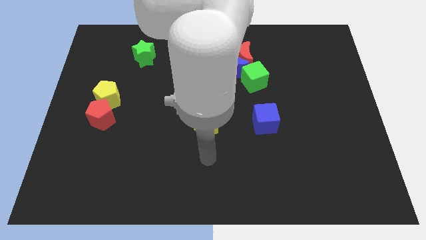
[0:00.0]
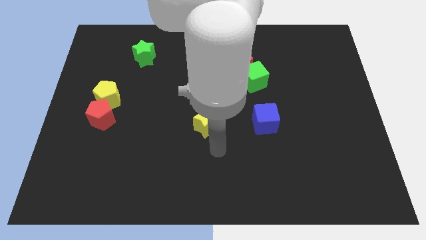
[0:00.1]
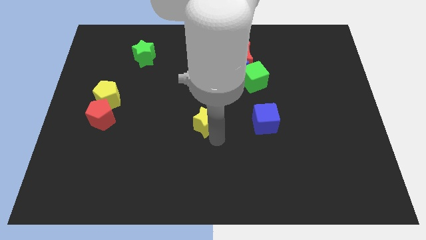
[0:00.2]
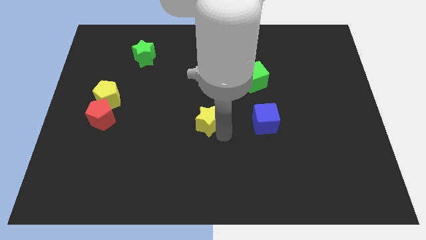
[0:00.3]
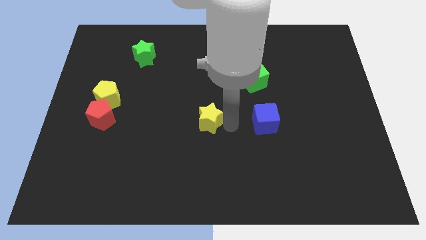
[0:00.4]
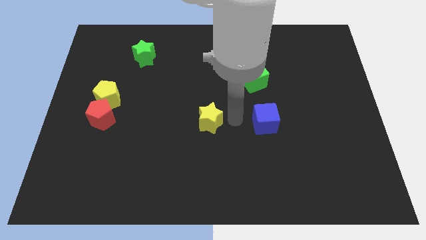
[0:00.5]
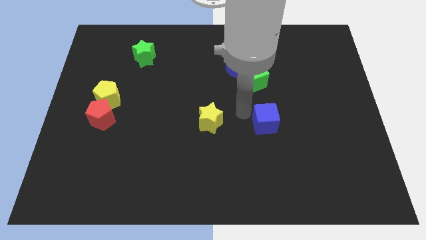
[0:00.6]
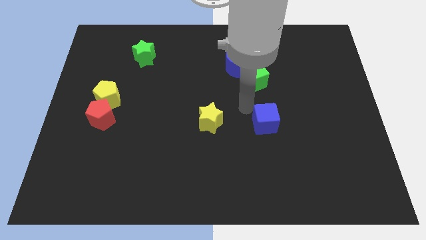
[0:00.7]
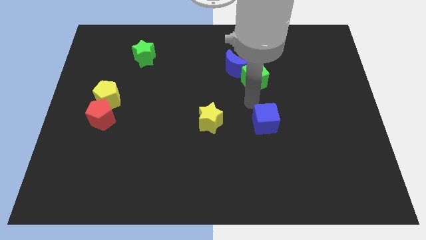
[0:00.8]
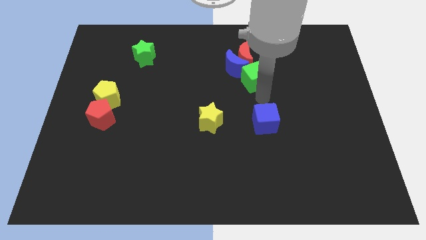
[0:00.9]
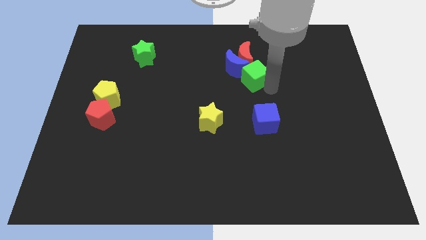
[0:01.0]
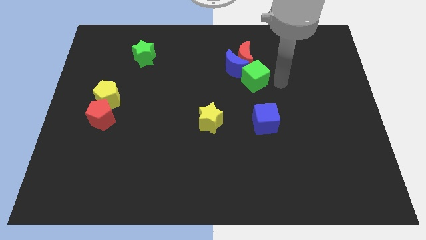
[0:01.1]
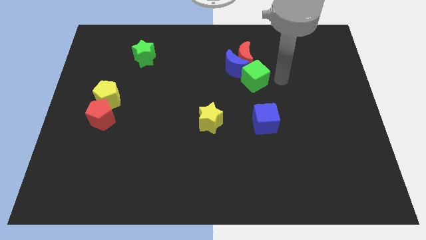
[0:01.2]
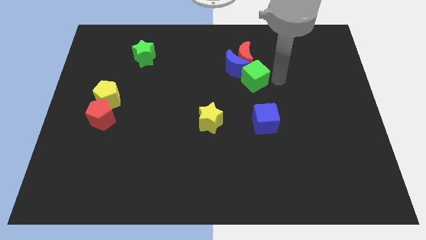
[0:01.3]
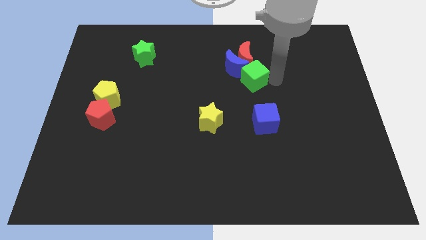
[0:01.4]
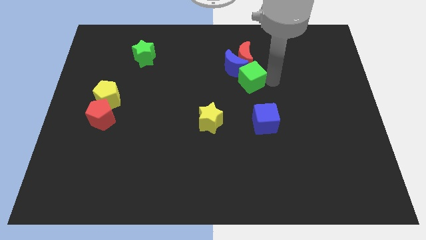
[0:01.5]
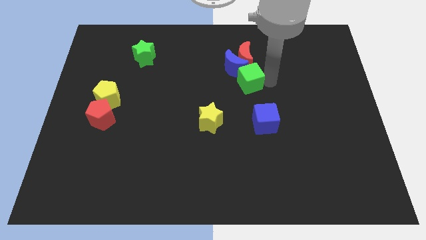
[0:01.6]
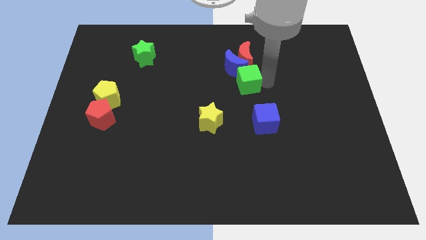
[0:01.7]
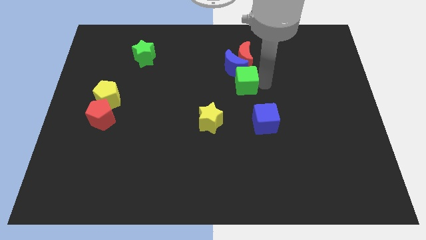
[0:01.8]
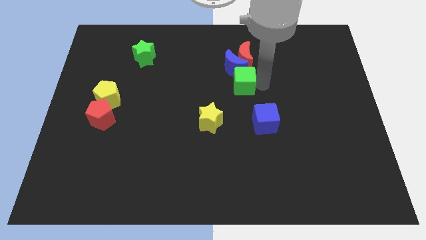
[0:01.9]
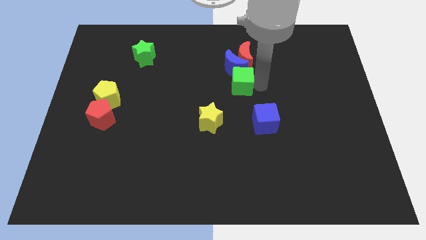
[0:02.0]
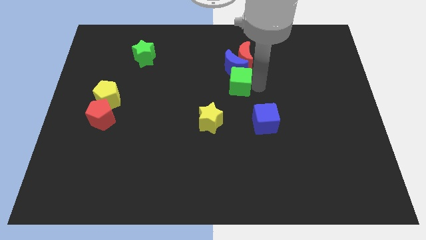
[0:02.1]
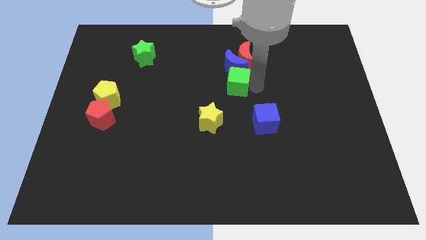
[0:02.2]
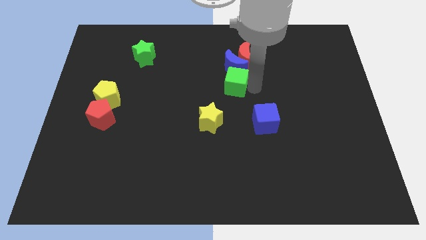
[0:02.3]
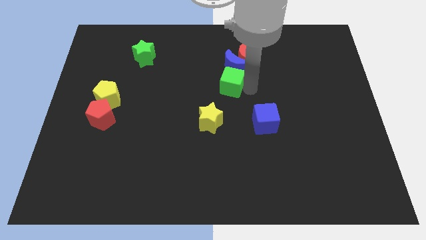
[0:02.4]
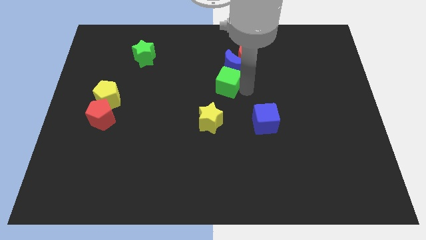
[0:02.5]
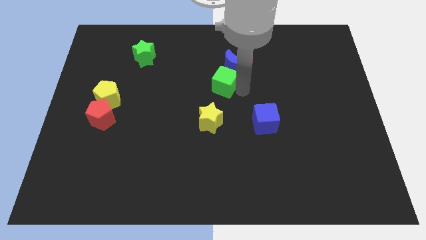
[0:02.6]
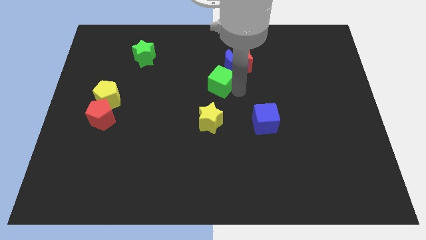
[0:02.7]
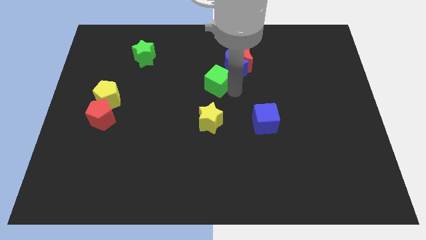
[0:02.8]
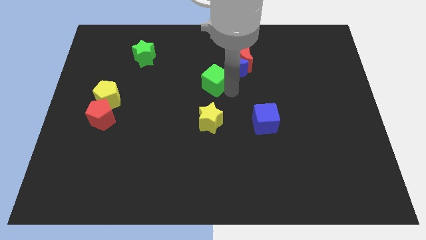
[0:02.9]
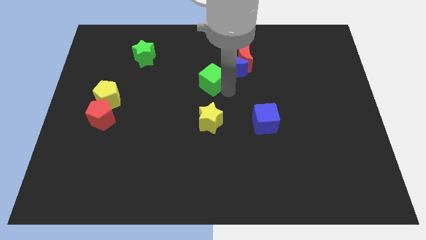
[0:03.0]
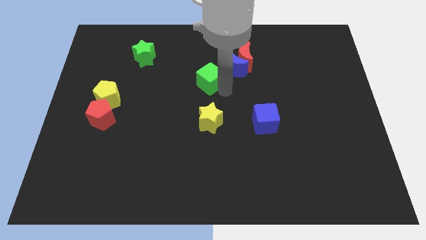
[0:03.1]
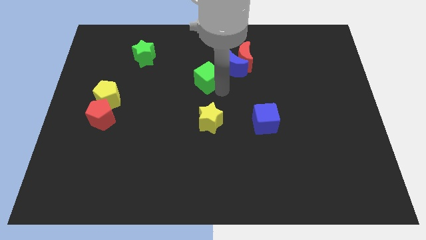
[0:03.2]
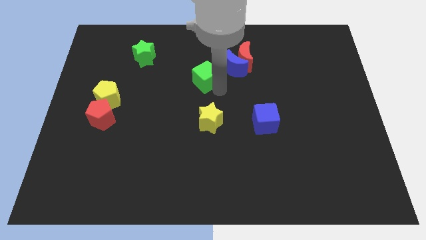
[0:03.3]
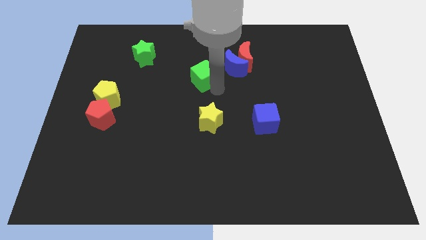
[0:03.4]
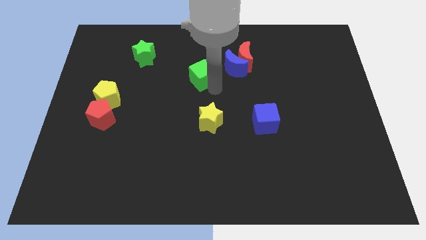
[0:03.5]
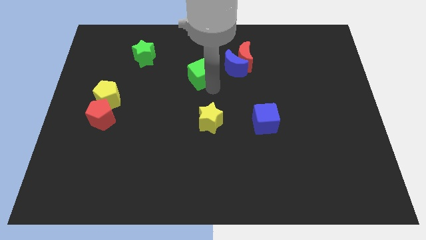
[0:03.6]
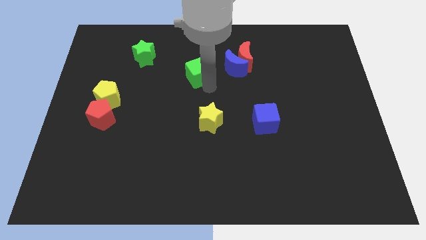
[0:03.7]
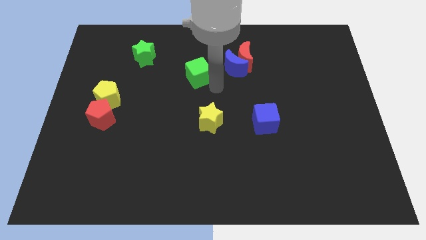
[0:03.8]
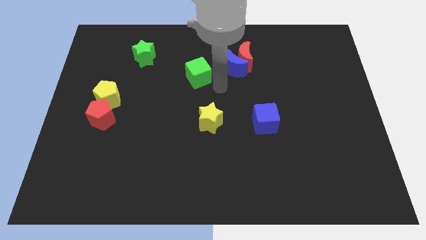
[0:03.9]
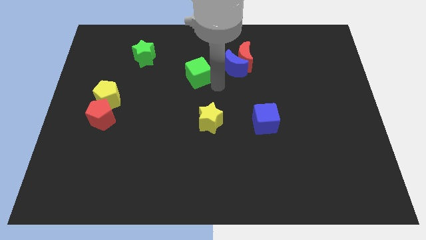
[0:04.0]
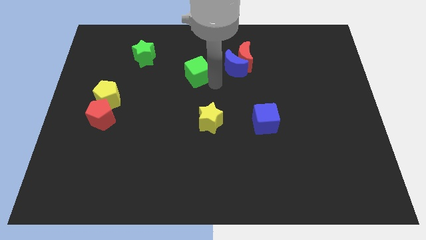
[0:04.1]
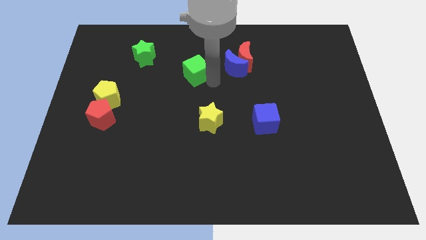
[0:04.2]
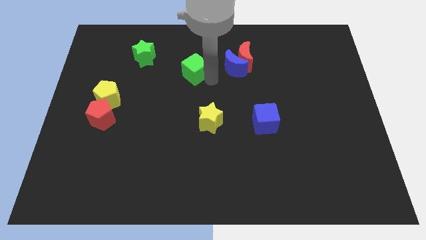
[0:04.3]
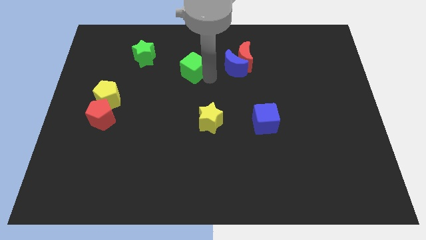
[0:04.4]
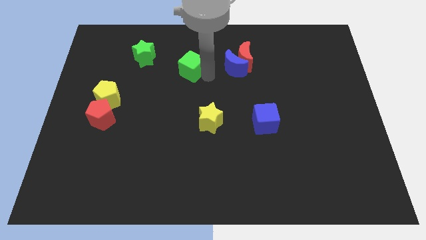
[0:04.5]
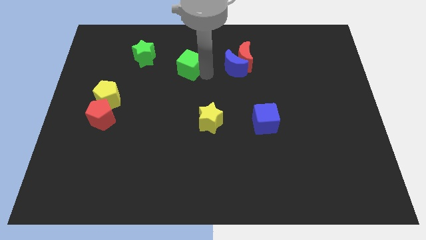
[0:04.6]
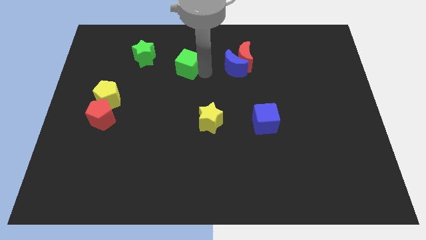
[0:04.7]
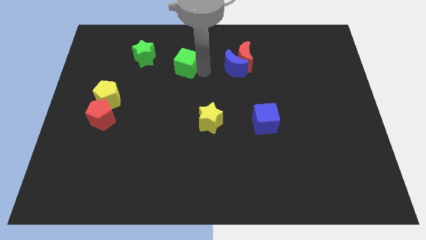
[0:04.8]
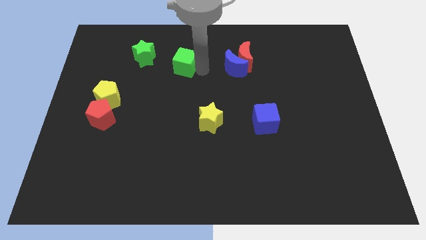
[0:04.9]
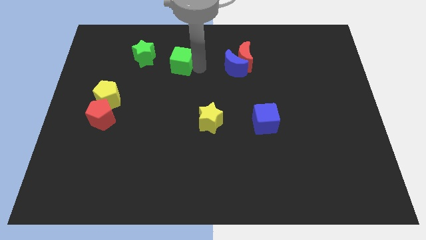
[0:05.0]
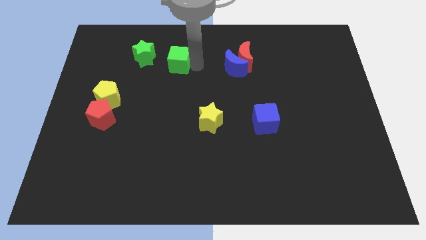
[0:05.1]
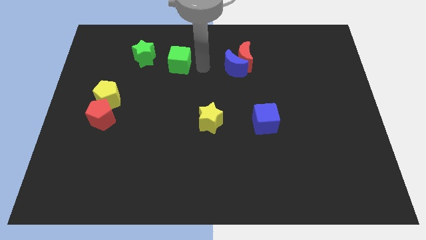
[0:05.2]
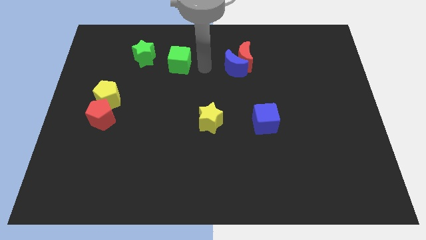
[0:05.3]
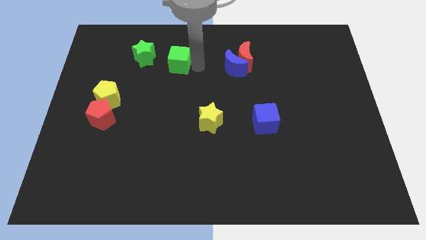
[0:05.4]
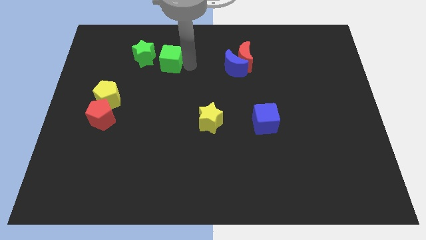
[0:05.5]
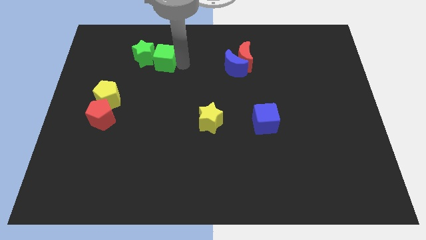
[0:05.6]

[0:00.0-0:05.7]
push the green cube next to the green star

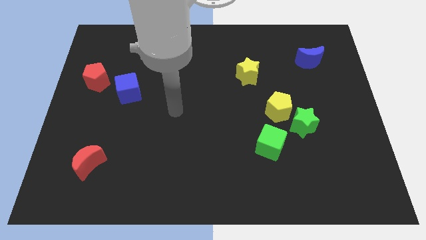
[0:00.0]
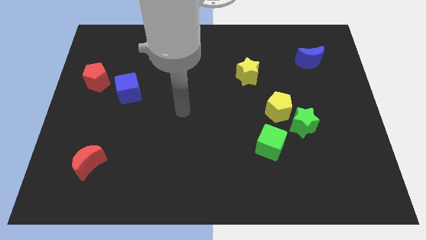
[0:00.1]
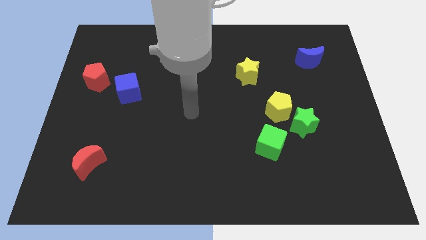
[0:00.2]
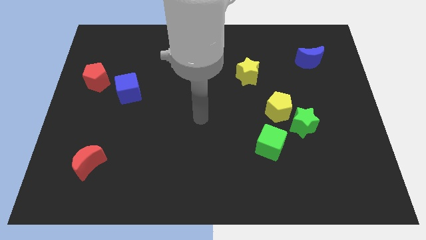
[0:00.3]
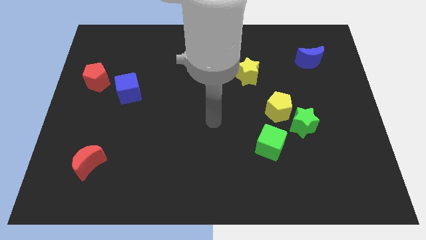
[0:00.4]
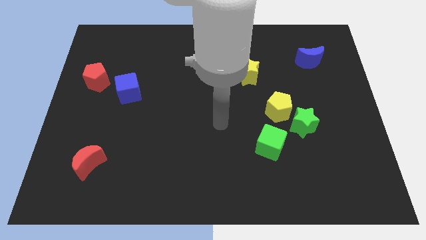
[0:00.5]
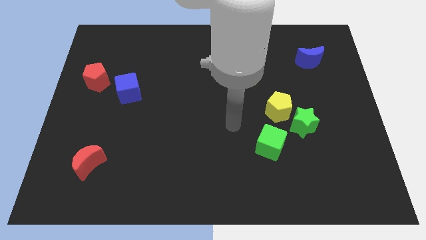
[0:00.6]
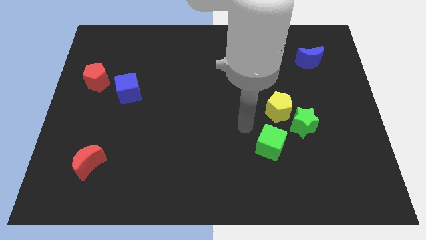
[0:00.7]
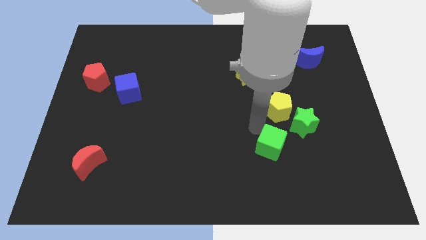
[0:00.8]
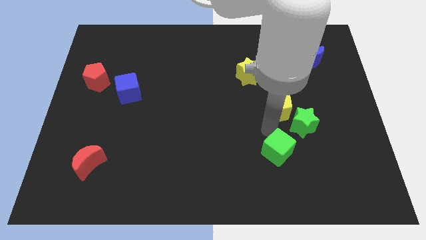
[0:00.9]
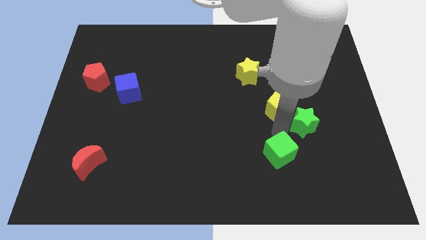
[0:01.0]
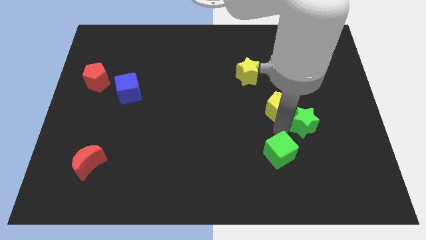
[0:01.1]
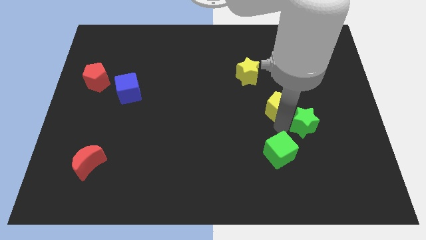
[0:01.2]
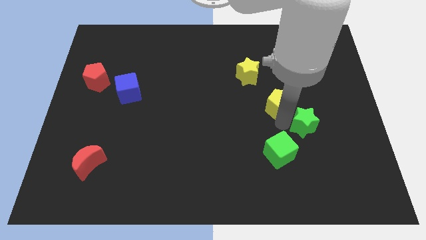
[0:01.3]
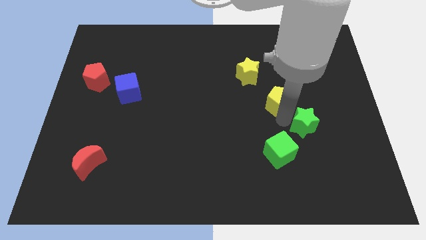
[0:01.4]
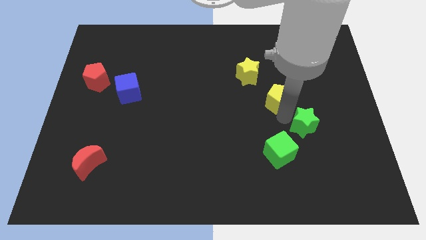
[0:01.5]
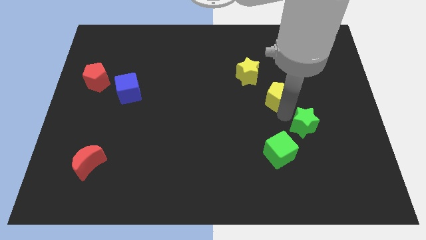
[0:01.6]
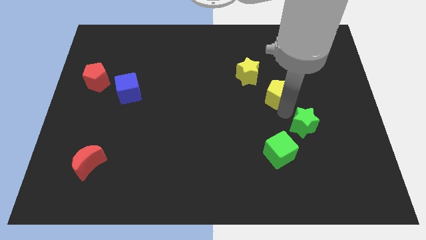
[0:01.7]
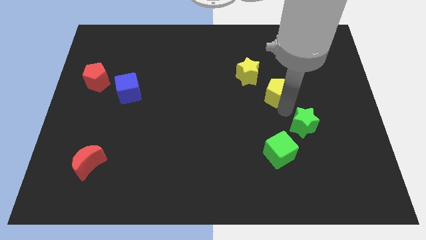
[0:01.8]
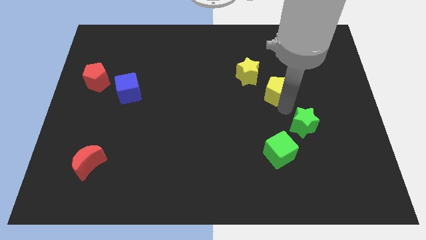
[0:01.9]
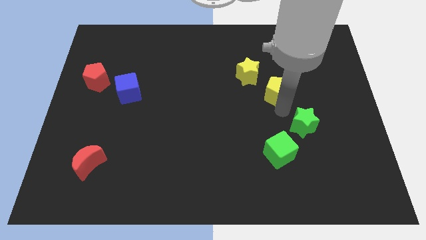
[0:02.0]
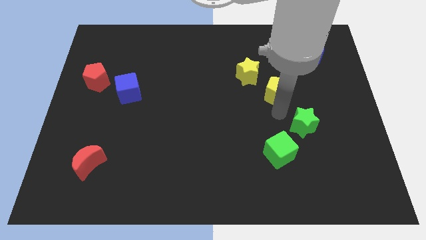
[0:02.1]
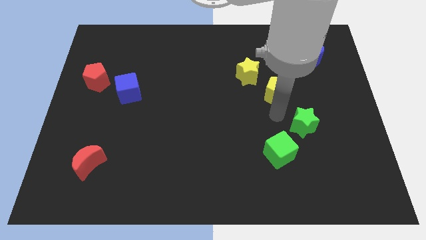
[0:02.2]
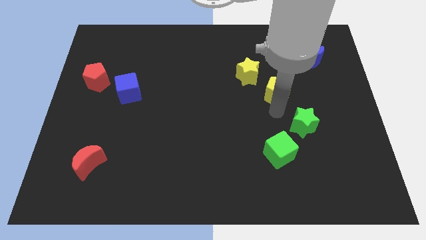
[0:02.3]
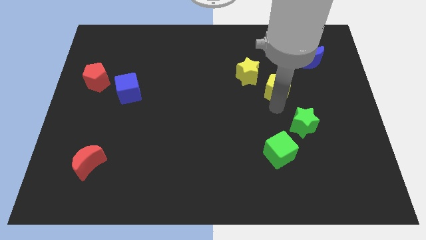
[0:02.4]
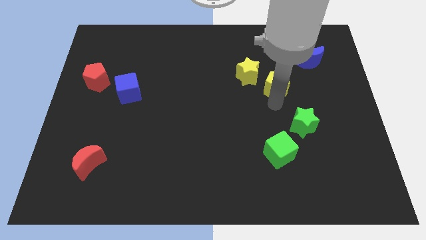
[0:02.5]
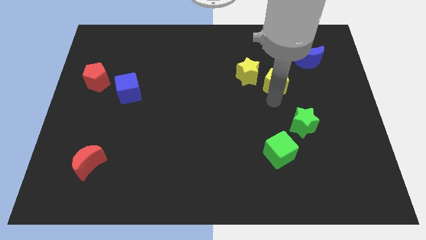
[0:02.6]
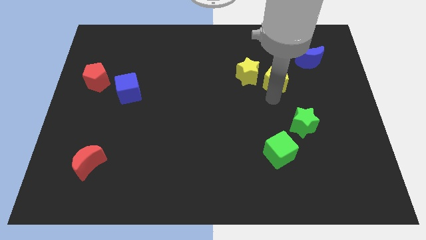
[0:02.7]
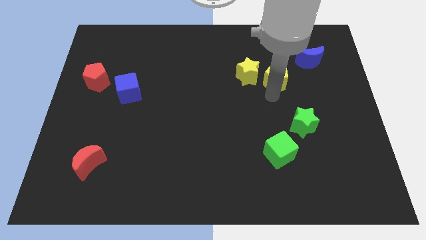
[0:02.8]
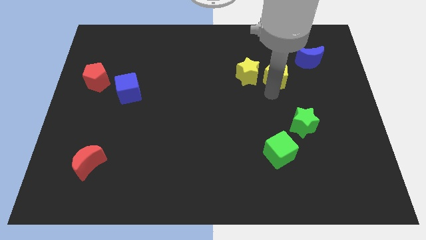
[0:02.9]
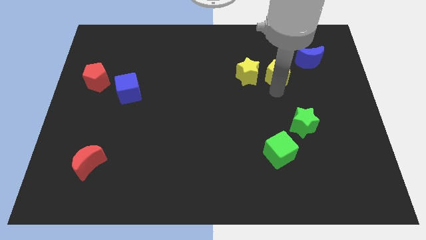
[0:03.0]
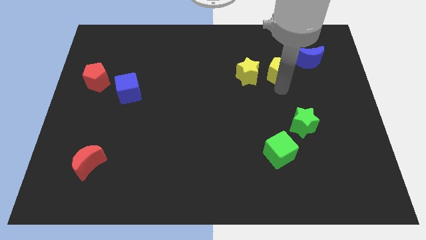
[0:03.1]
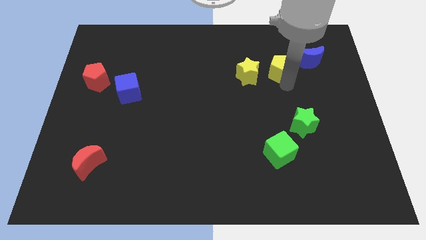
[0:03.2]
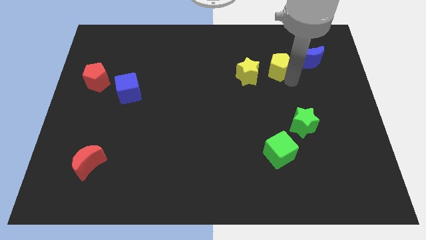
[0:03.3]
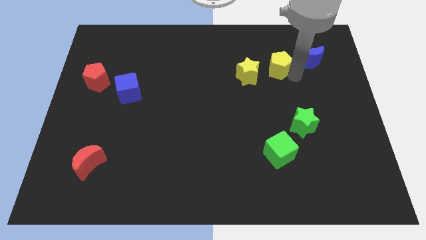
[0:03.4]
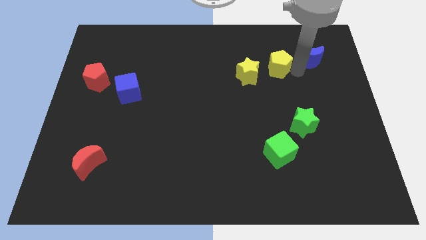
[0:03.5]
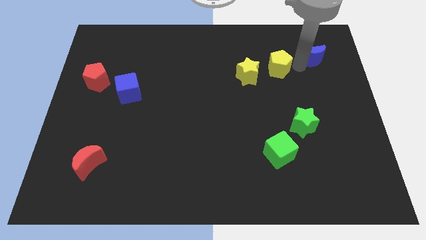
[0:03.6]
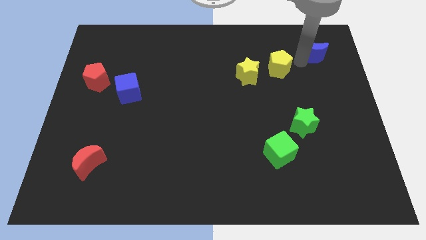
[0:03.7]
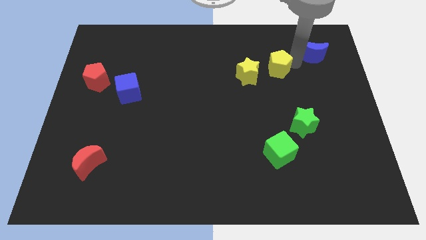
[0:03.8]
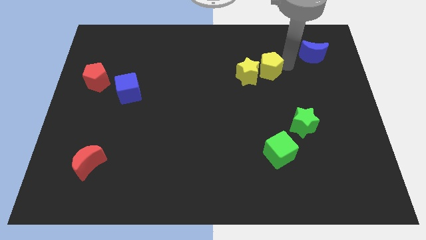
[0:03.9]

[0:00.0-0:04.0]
put the yellow pentagon next to the yellow star
